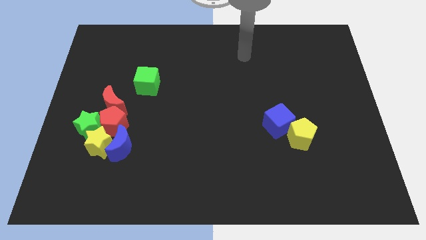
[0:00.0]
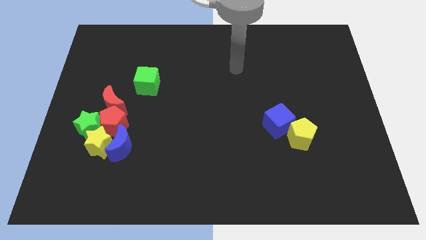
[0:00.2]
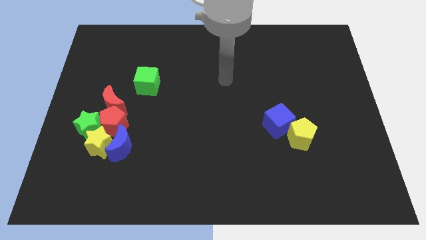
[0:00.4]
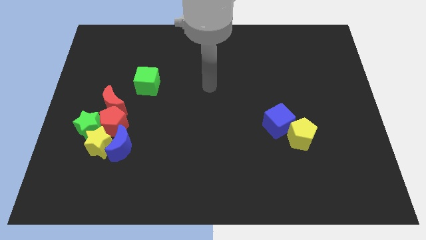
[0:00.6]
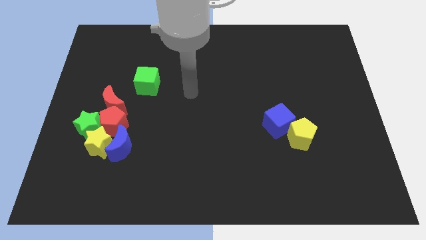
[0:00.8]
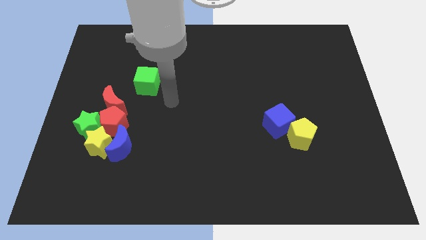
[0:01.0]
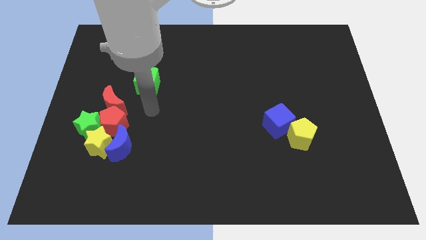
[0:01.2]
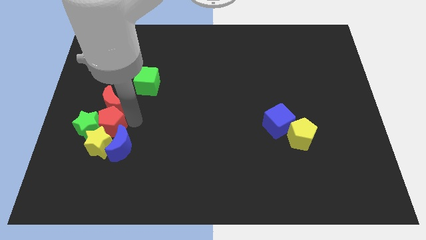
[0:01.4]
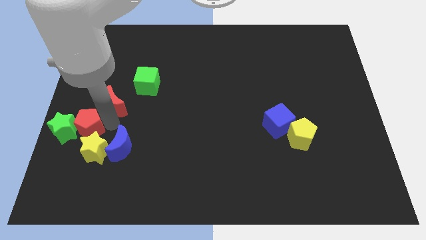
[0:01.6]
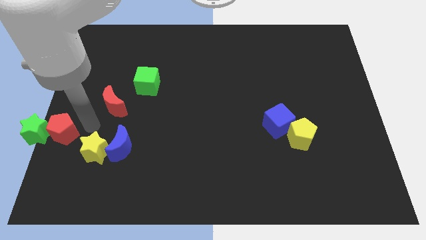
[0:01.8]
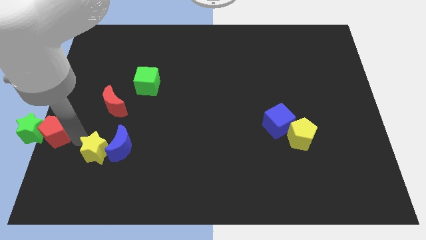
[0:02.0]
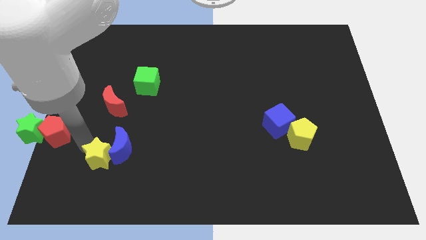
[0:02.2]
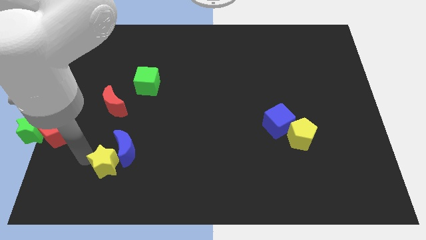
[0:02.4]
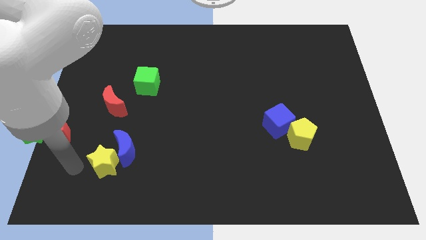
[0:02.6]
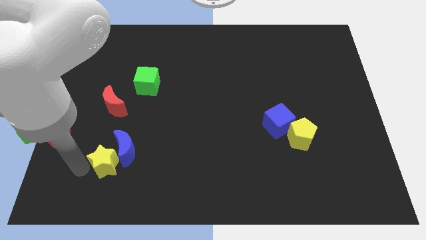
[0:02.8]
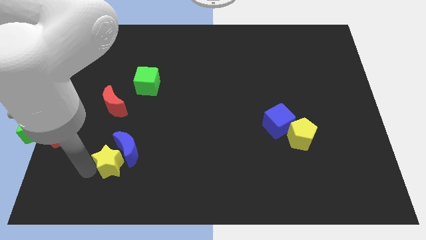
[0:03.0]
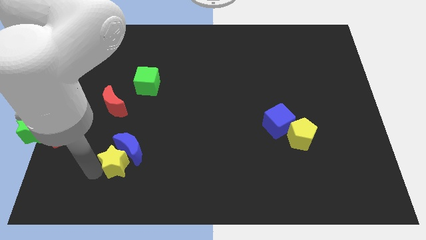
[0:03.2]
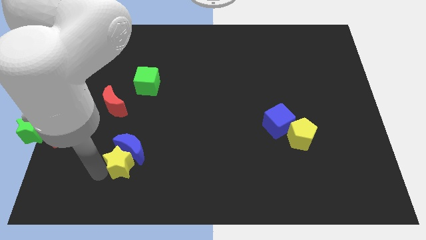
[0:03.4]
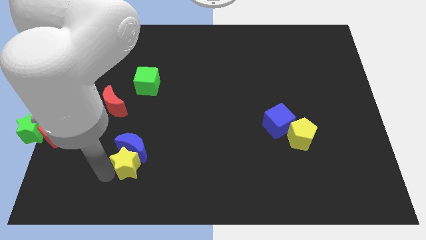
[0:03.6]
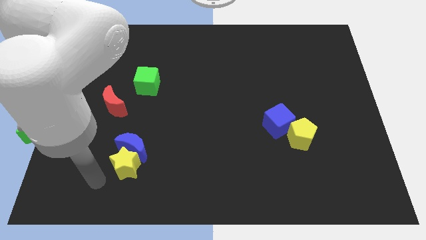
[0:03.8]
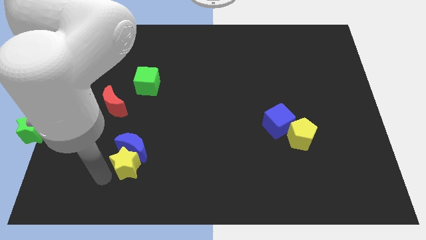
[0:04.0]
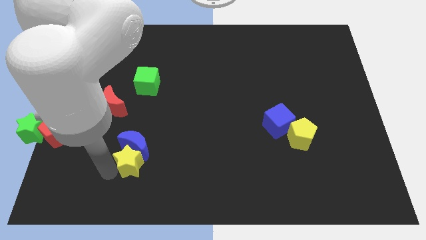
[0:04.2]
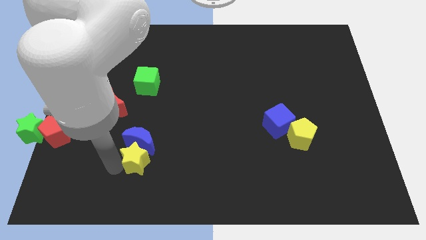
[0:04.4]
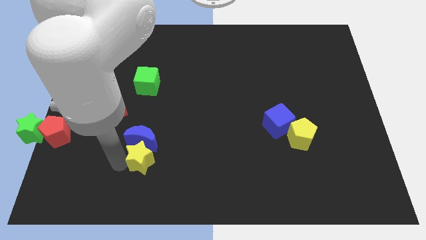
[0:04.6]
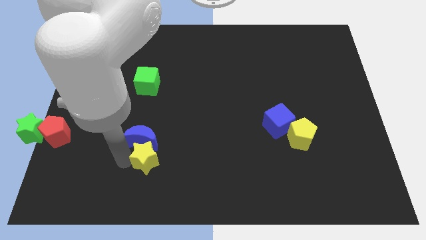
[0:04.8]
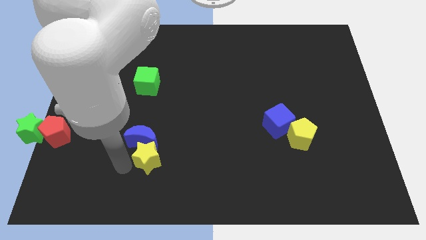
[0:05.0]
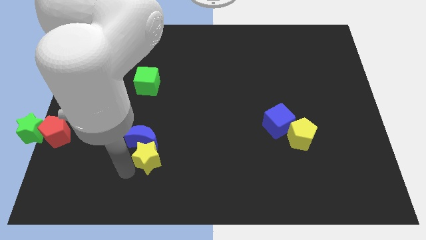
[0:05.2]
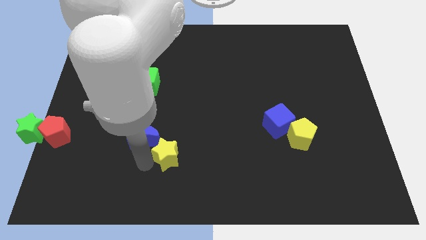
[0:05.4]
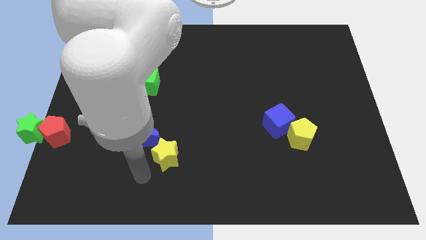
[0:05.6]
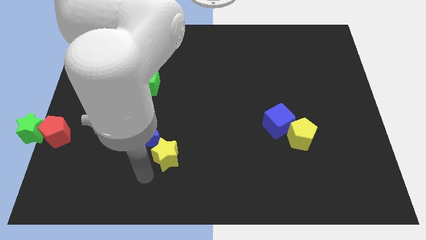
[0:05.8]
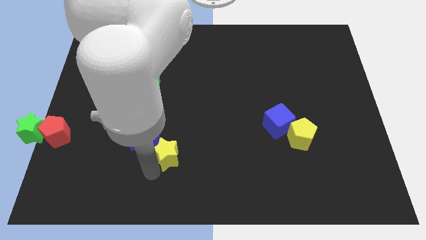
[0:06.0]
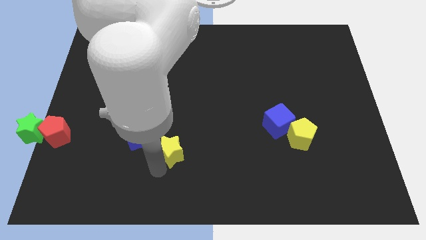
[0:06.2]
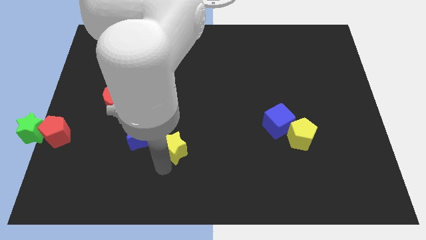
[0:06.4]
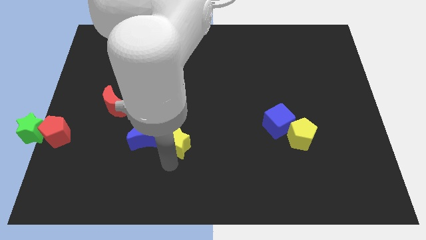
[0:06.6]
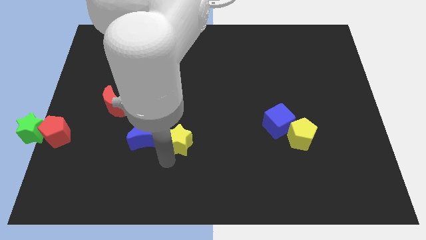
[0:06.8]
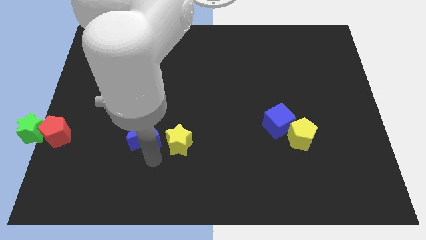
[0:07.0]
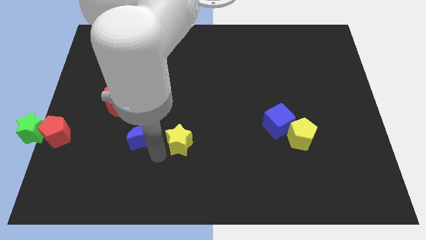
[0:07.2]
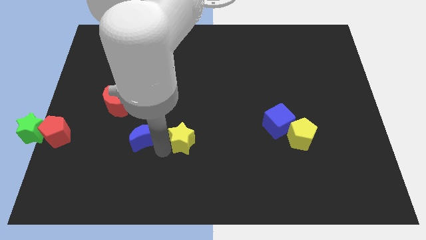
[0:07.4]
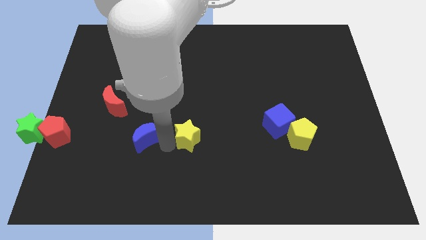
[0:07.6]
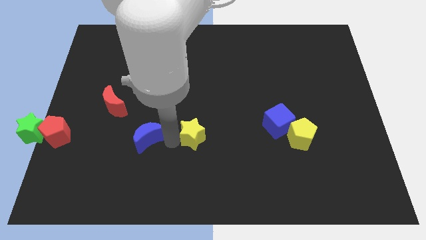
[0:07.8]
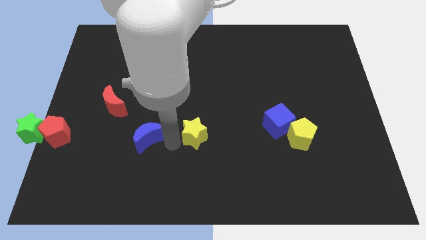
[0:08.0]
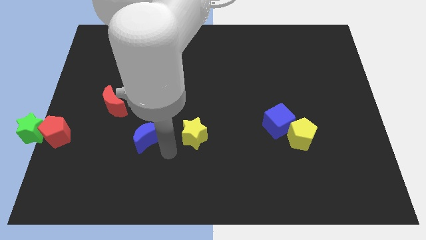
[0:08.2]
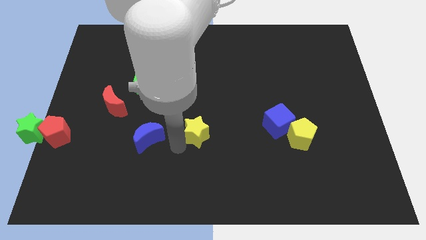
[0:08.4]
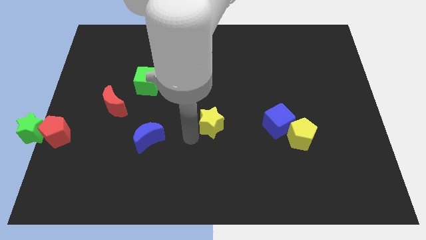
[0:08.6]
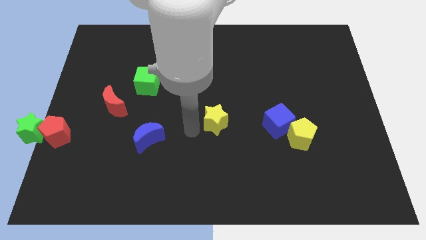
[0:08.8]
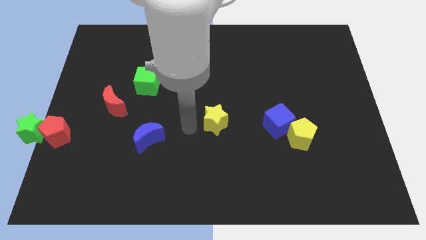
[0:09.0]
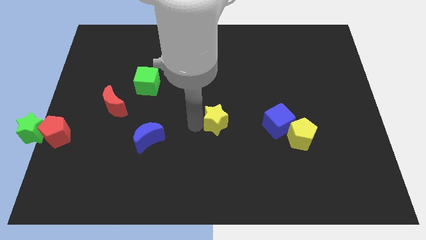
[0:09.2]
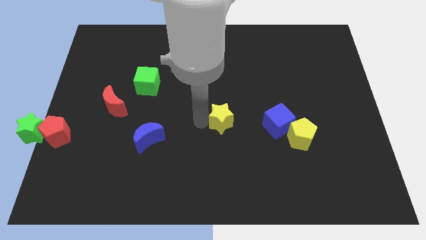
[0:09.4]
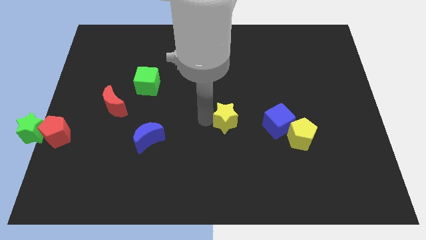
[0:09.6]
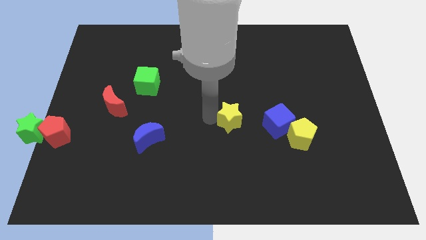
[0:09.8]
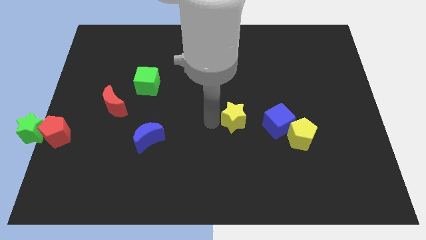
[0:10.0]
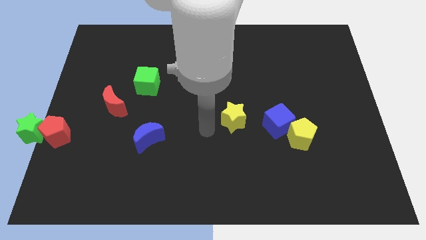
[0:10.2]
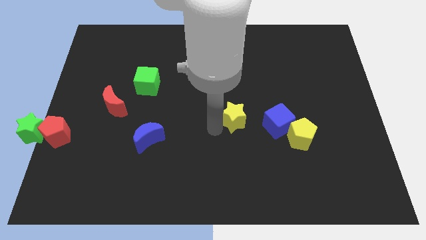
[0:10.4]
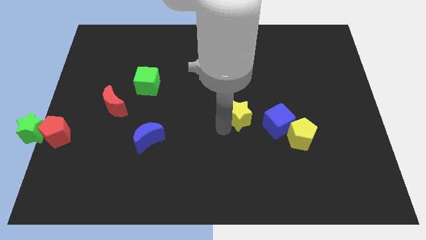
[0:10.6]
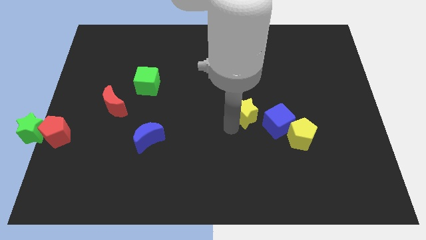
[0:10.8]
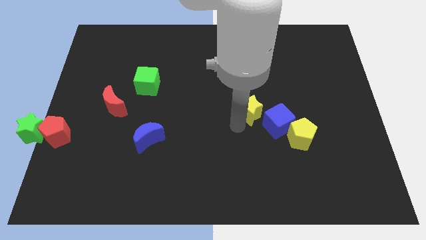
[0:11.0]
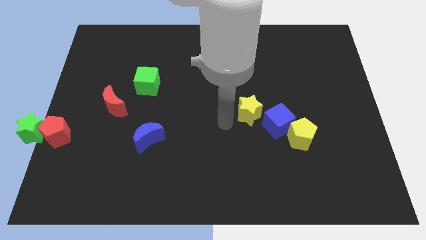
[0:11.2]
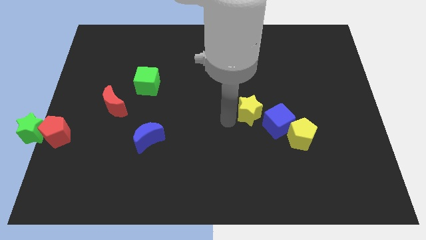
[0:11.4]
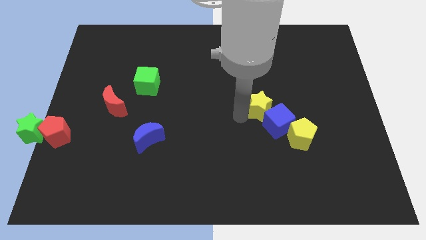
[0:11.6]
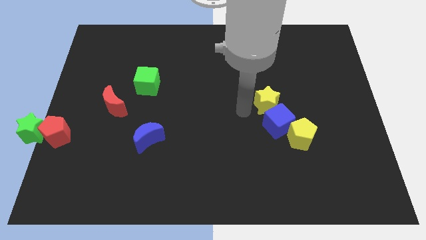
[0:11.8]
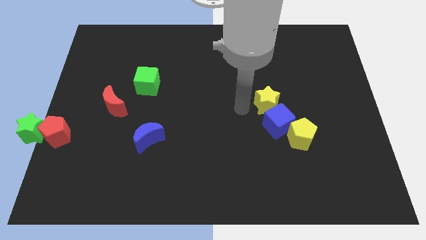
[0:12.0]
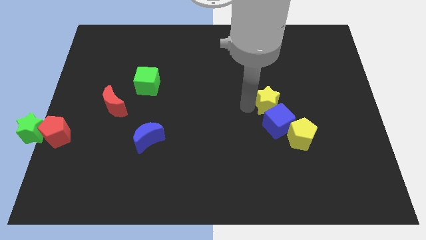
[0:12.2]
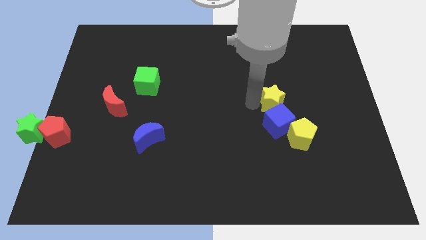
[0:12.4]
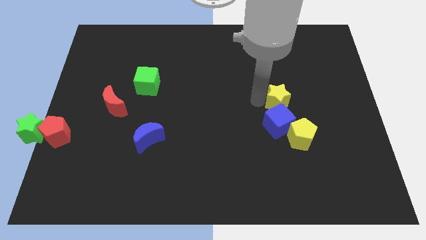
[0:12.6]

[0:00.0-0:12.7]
put the yellow star to the top of the yellow pentagon

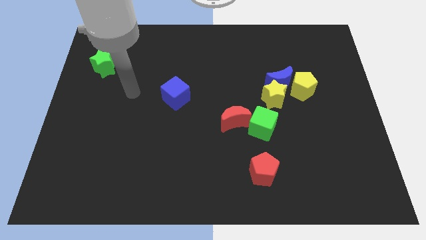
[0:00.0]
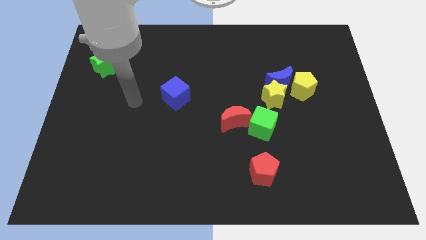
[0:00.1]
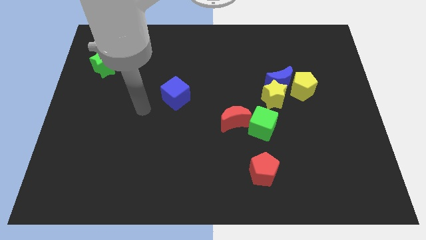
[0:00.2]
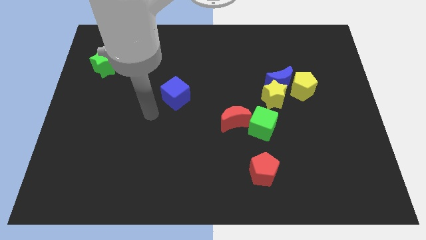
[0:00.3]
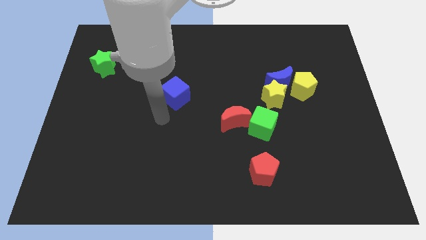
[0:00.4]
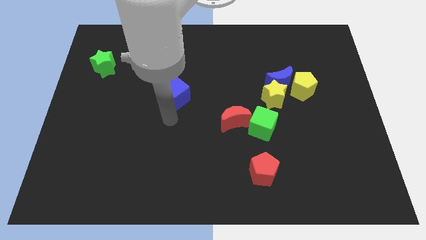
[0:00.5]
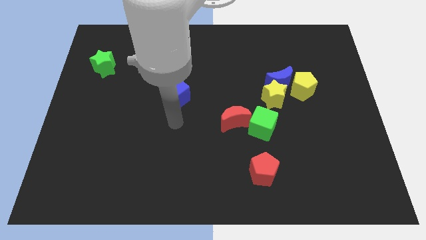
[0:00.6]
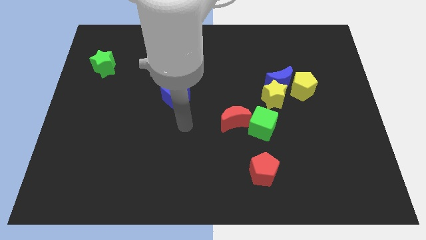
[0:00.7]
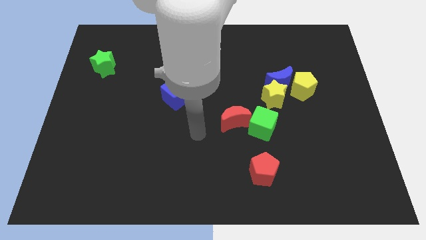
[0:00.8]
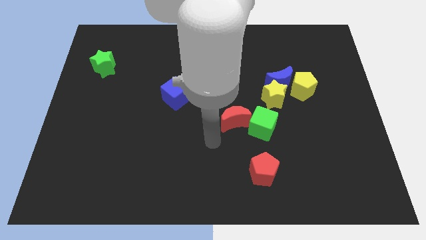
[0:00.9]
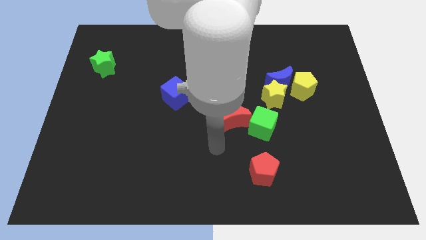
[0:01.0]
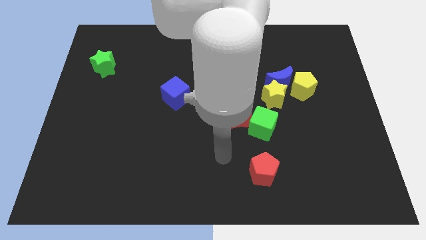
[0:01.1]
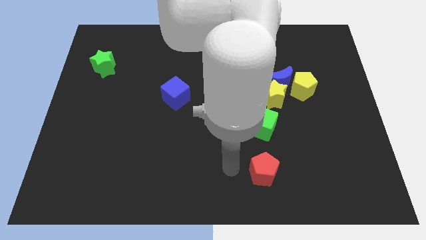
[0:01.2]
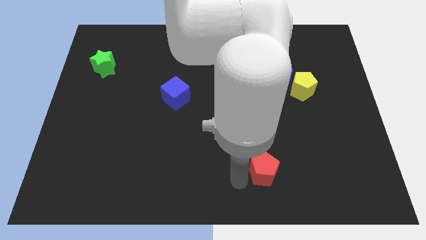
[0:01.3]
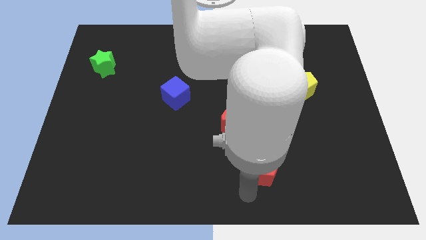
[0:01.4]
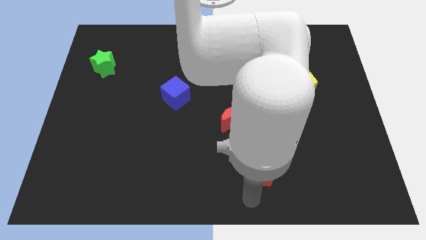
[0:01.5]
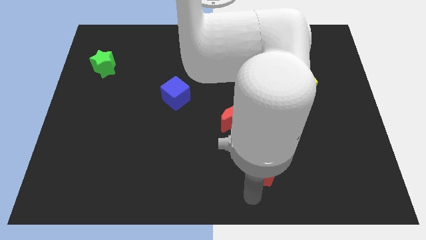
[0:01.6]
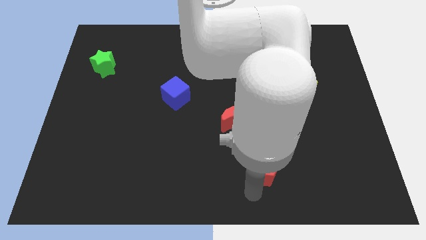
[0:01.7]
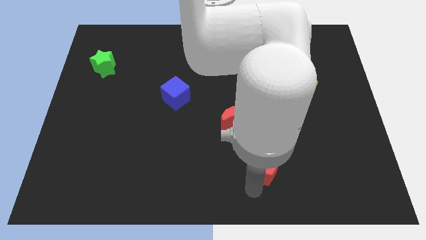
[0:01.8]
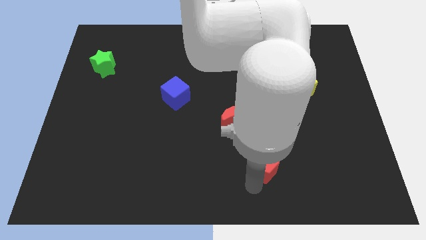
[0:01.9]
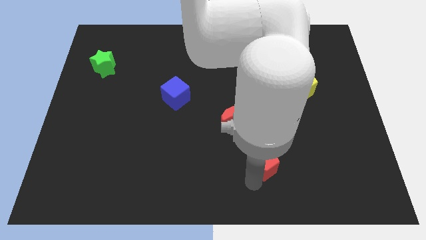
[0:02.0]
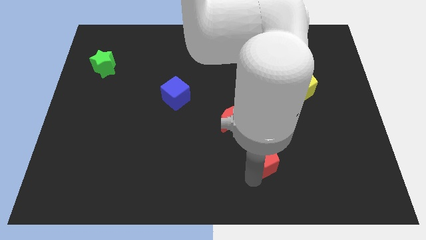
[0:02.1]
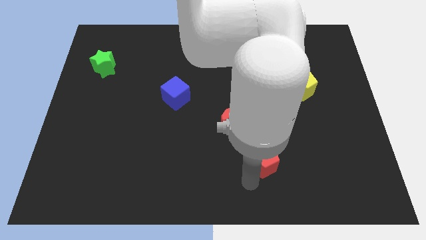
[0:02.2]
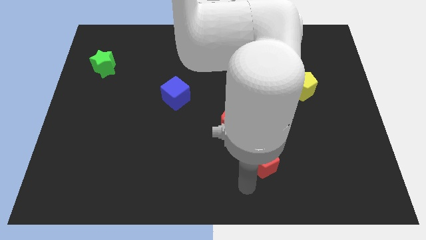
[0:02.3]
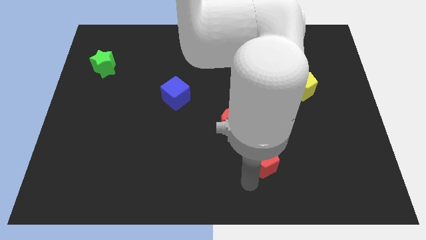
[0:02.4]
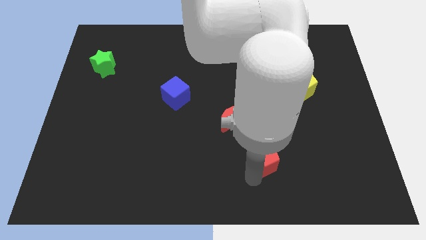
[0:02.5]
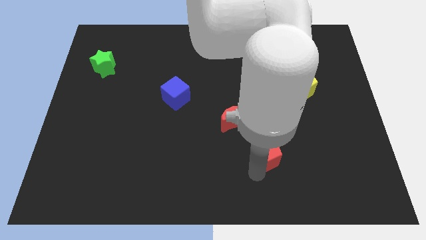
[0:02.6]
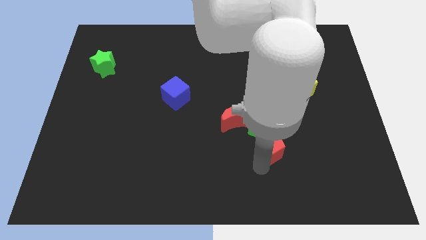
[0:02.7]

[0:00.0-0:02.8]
slide the red pentagon to the bottom side of the yellow star
